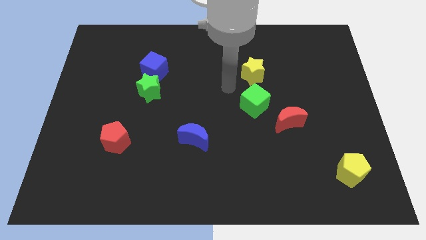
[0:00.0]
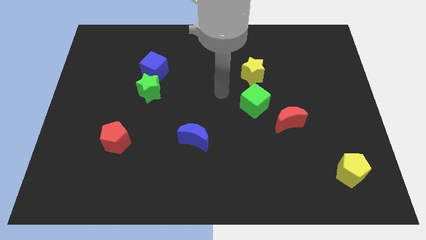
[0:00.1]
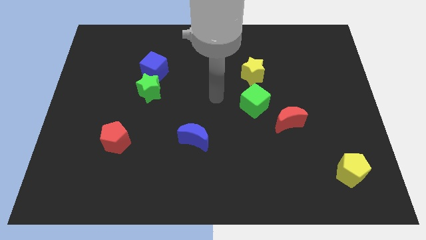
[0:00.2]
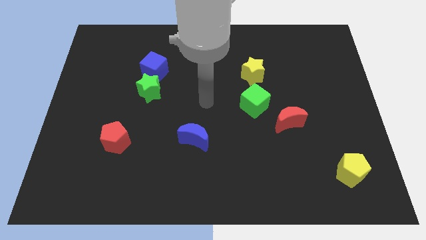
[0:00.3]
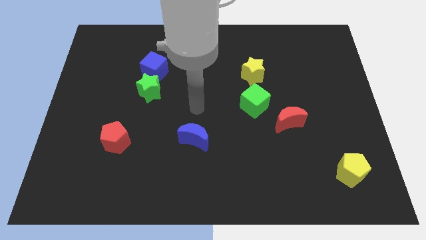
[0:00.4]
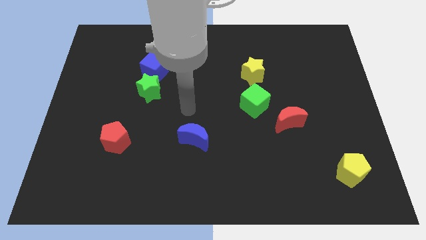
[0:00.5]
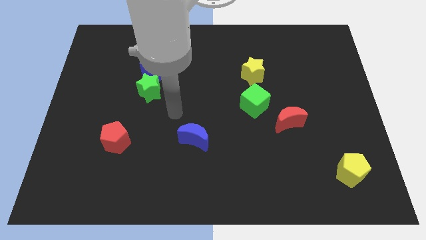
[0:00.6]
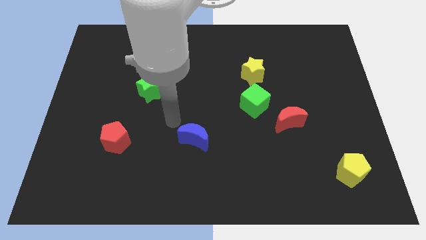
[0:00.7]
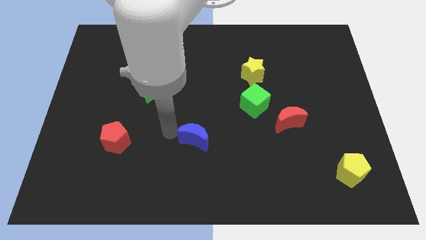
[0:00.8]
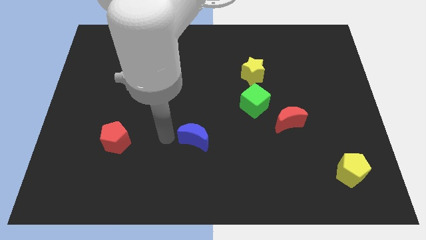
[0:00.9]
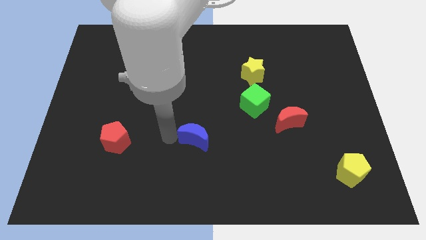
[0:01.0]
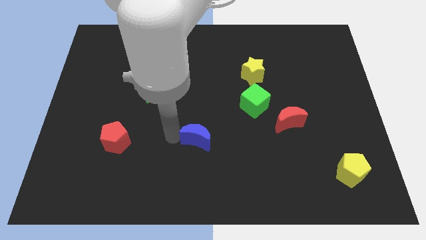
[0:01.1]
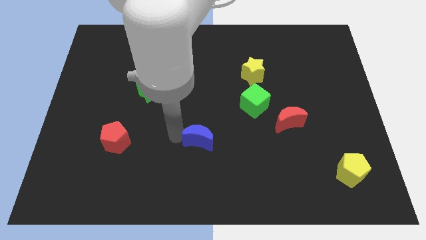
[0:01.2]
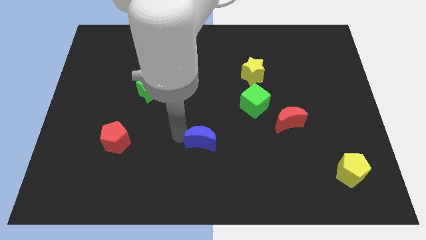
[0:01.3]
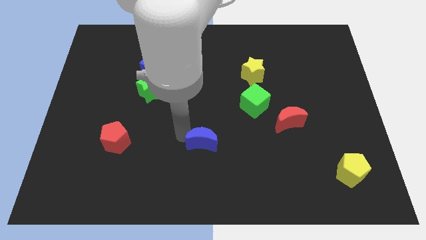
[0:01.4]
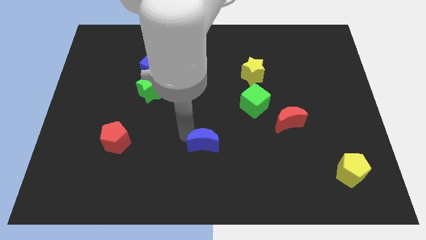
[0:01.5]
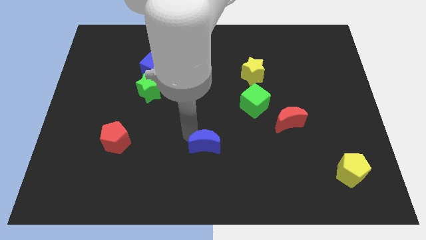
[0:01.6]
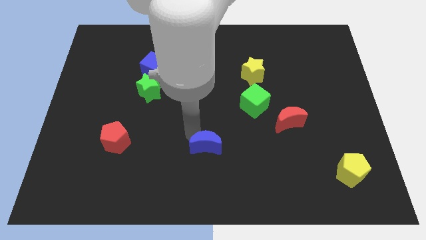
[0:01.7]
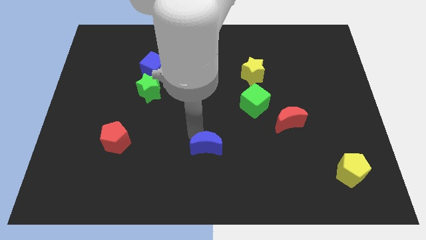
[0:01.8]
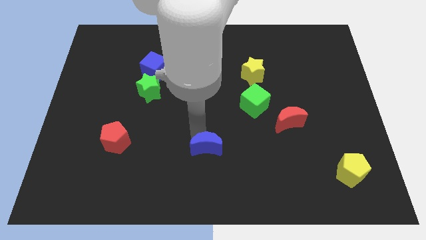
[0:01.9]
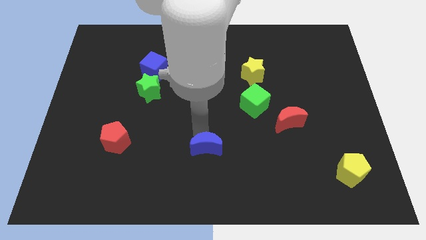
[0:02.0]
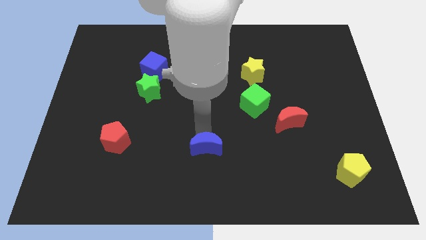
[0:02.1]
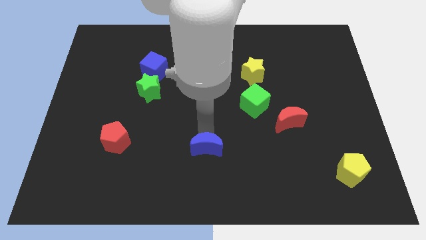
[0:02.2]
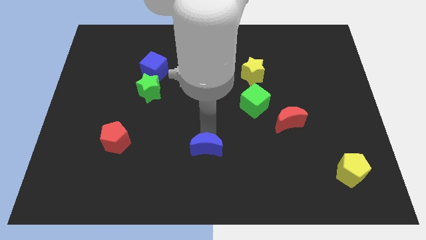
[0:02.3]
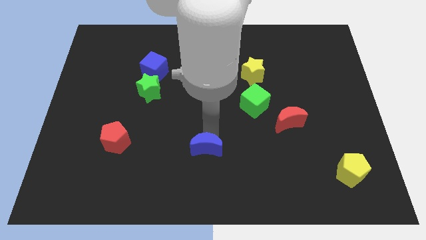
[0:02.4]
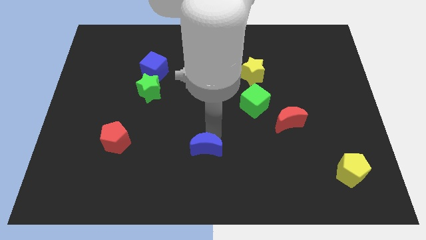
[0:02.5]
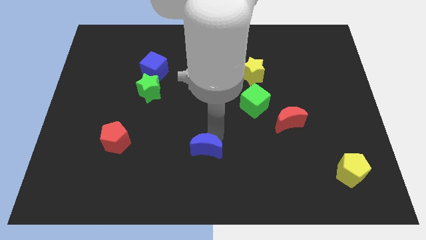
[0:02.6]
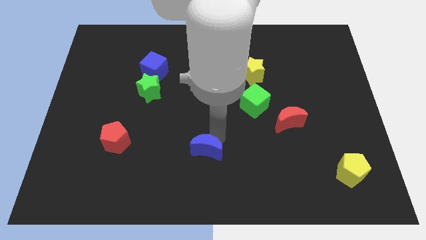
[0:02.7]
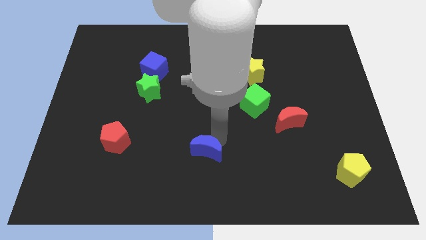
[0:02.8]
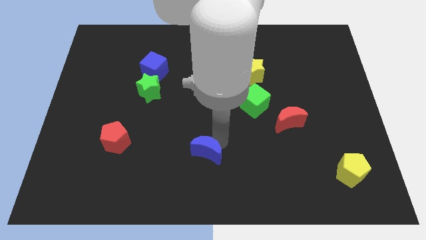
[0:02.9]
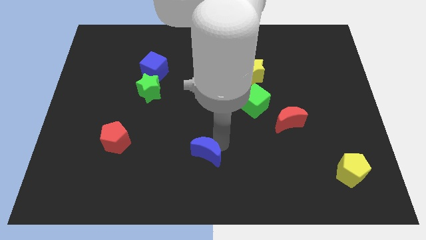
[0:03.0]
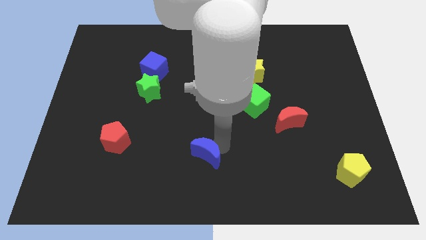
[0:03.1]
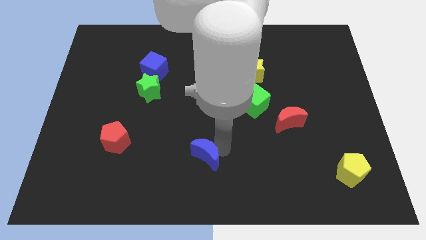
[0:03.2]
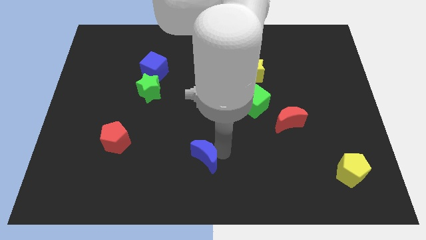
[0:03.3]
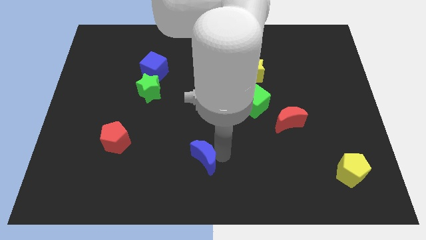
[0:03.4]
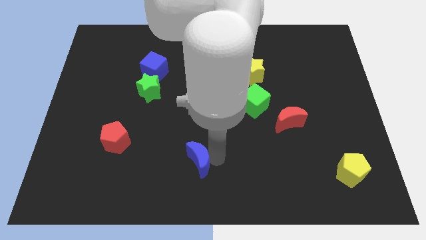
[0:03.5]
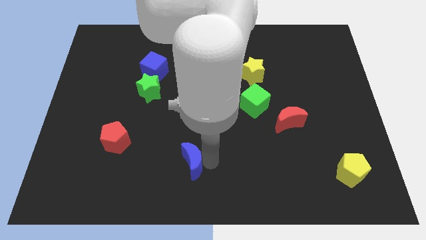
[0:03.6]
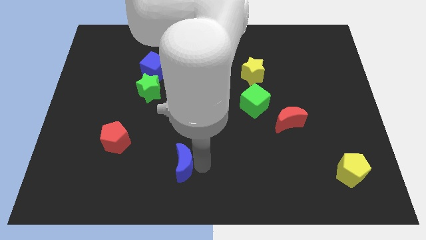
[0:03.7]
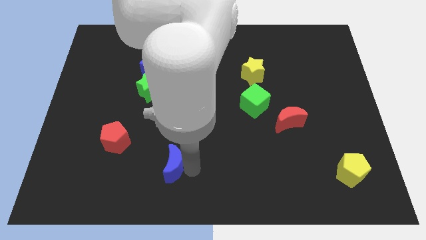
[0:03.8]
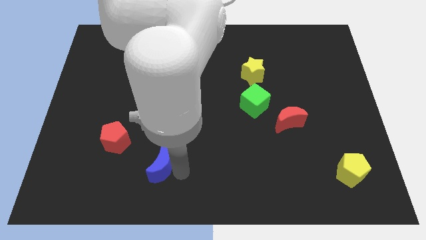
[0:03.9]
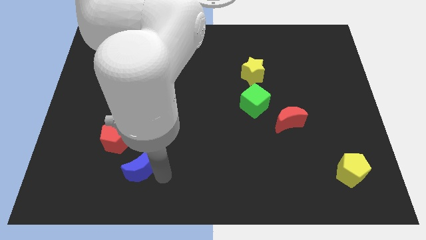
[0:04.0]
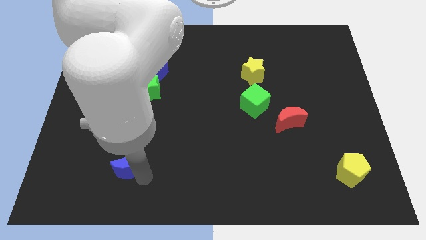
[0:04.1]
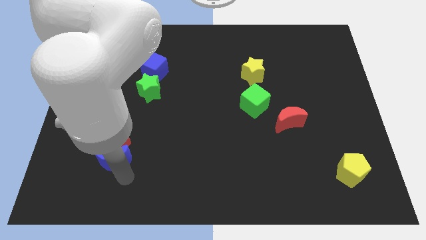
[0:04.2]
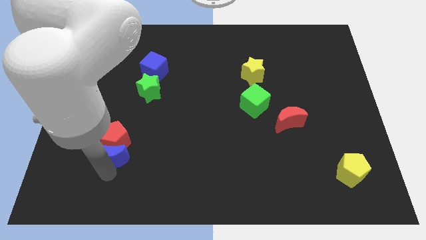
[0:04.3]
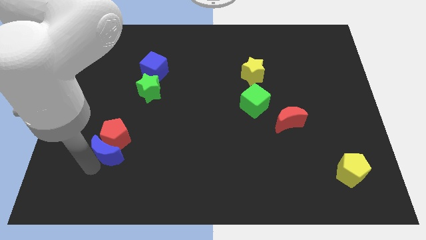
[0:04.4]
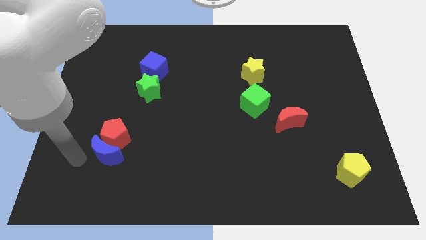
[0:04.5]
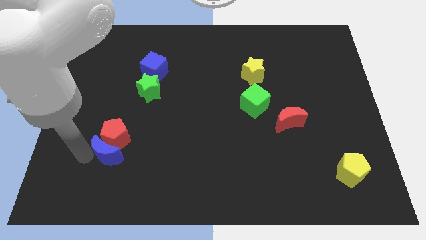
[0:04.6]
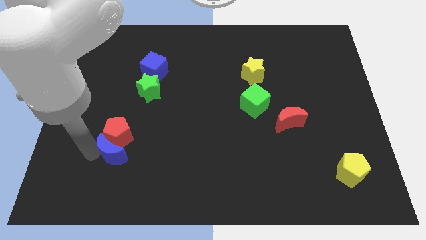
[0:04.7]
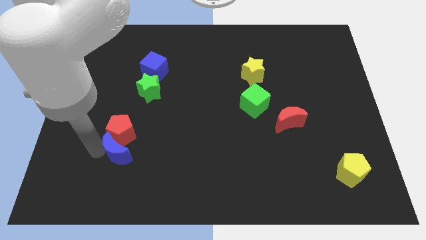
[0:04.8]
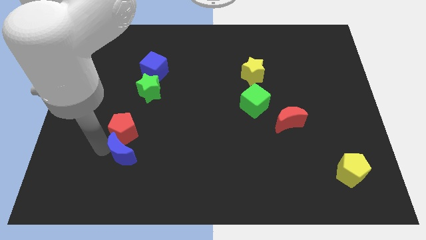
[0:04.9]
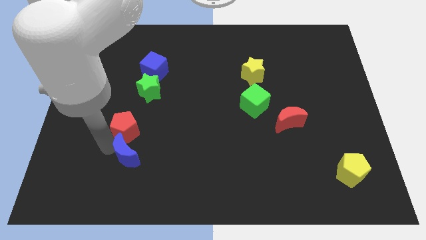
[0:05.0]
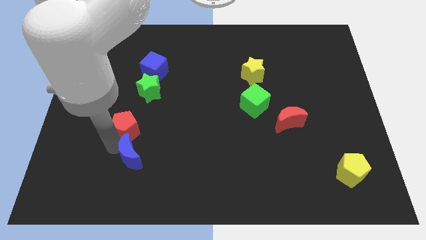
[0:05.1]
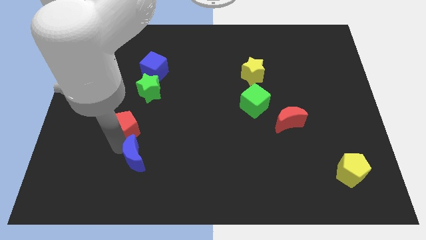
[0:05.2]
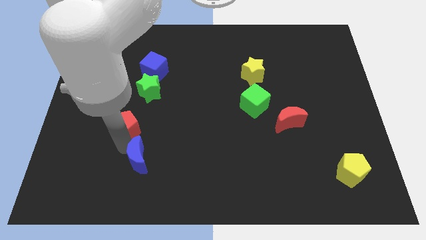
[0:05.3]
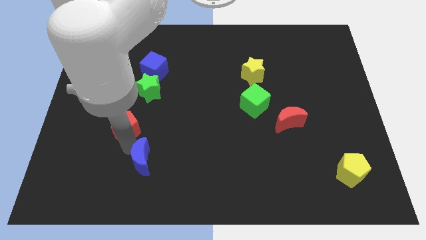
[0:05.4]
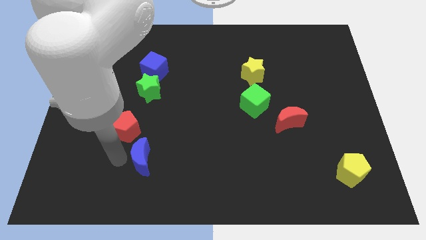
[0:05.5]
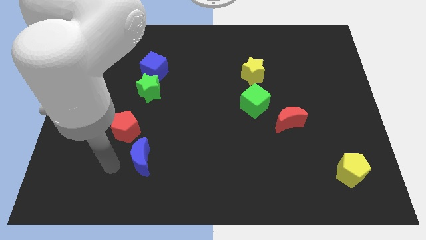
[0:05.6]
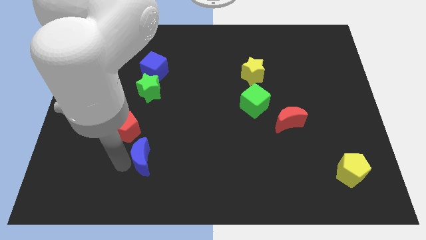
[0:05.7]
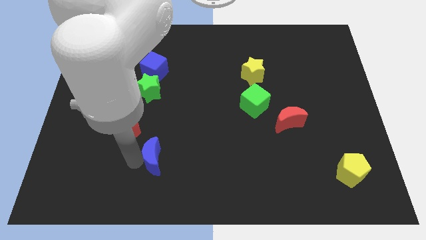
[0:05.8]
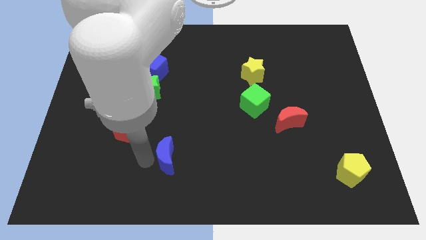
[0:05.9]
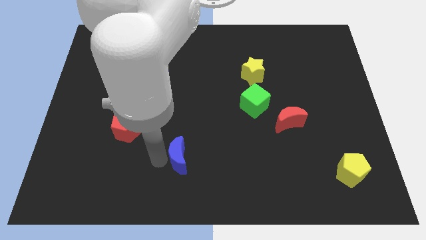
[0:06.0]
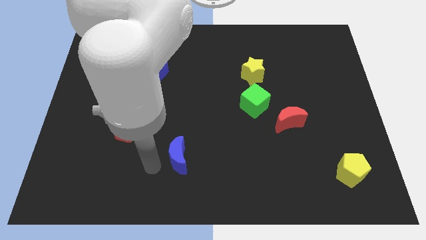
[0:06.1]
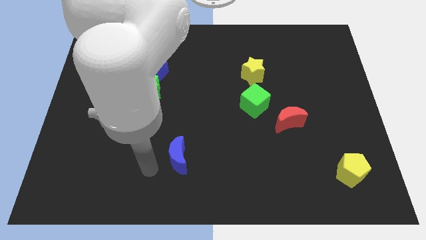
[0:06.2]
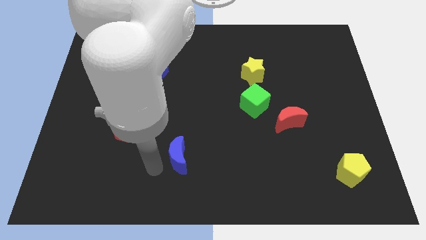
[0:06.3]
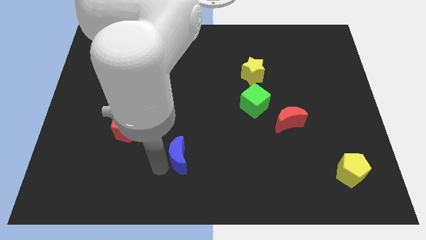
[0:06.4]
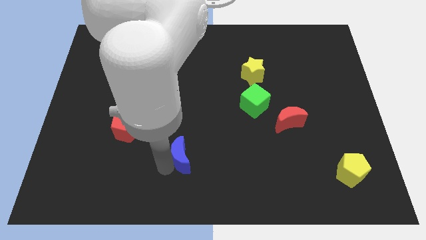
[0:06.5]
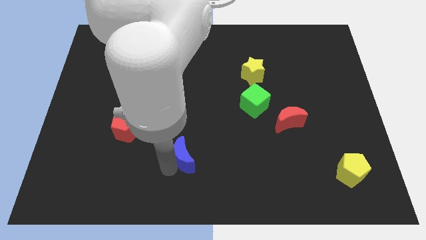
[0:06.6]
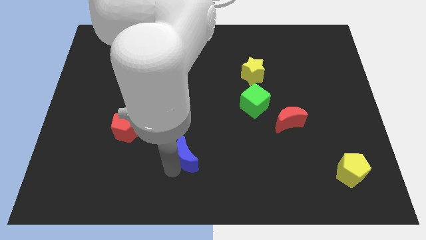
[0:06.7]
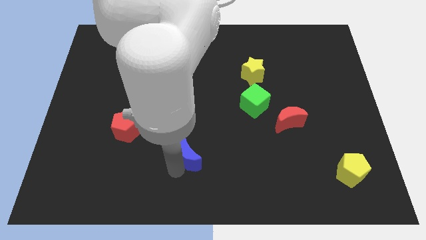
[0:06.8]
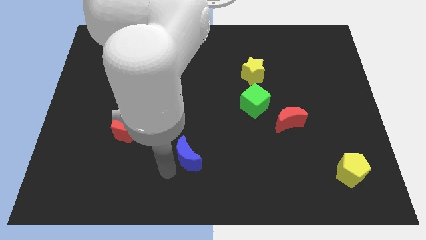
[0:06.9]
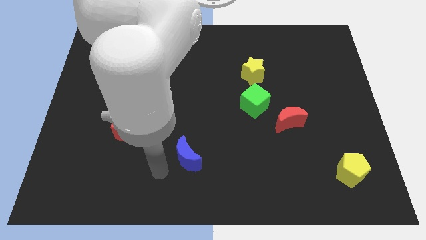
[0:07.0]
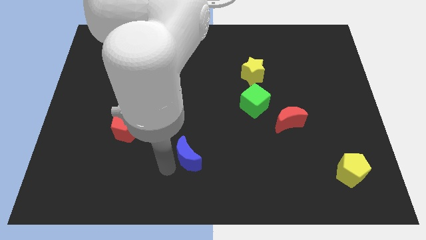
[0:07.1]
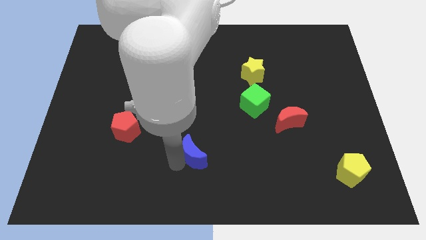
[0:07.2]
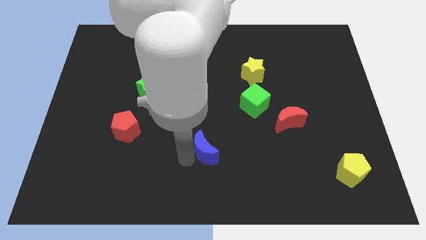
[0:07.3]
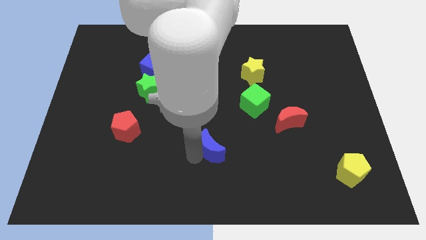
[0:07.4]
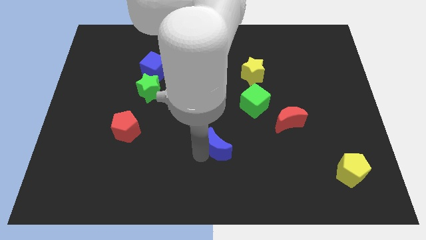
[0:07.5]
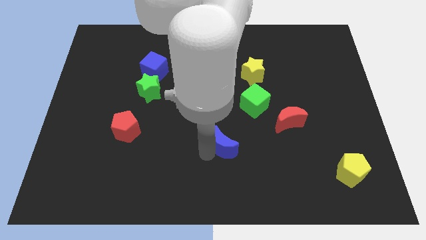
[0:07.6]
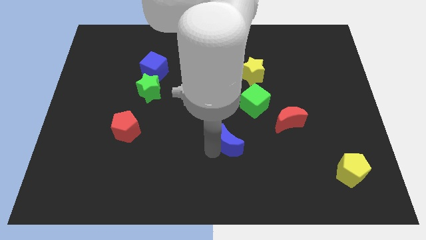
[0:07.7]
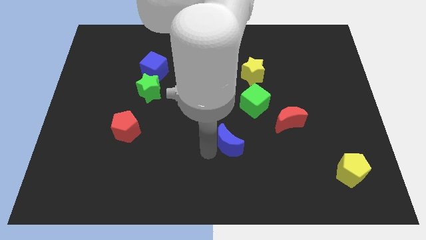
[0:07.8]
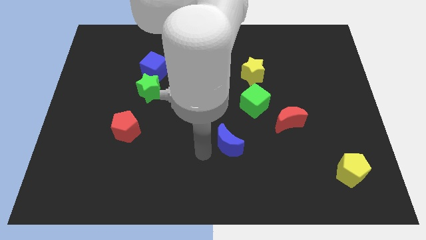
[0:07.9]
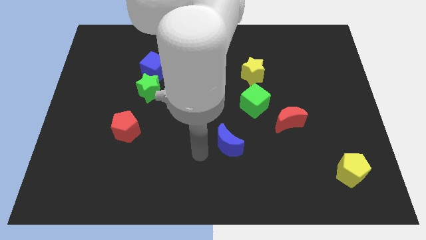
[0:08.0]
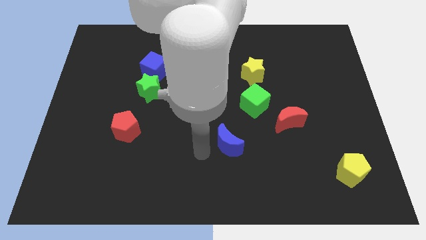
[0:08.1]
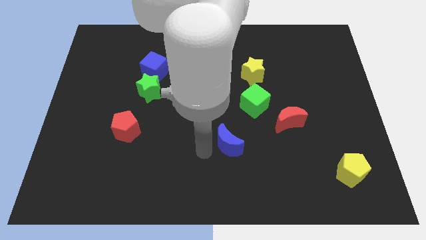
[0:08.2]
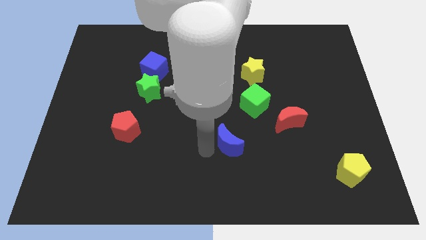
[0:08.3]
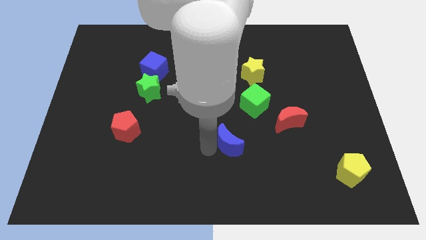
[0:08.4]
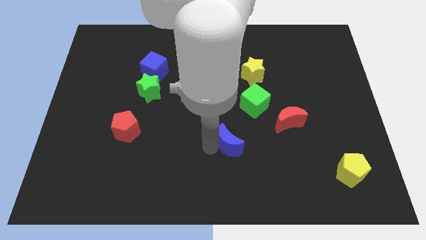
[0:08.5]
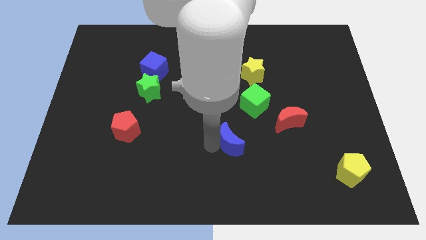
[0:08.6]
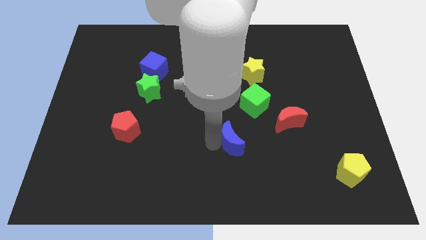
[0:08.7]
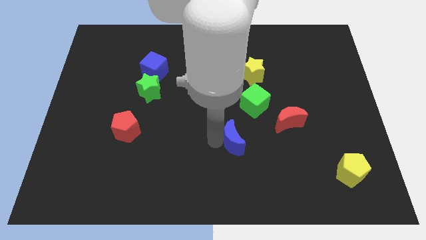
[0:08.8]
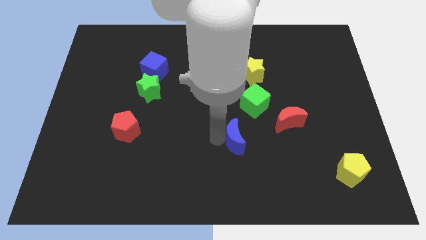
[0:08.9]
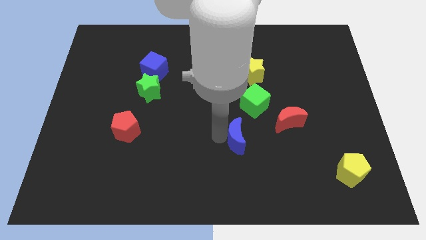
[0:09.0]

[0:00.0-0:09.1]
slide the blue moon to the bottom side of the green cube
